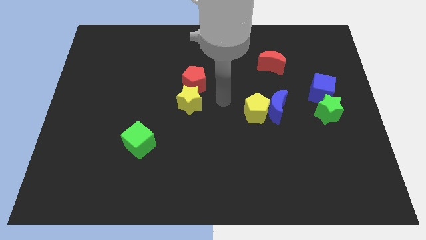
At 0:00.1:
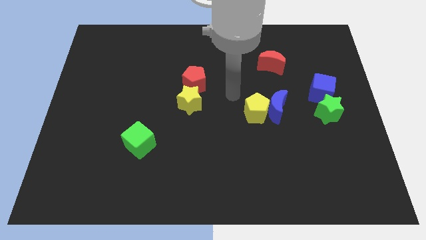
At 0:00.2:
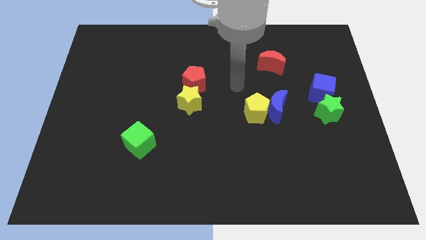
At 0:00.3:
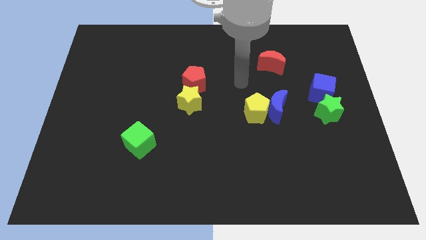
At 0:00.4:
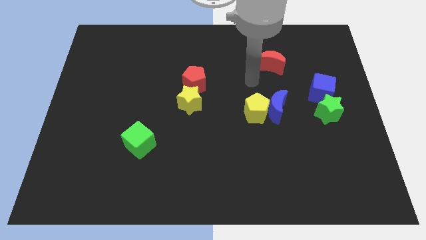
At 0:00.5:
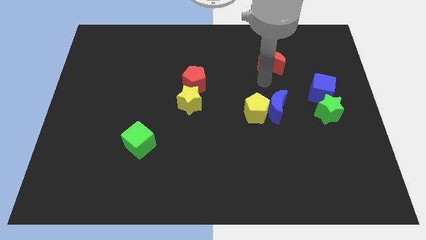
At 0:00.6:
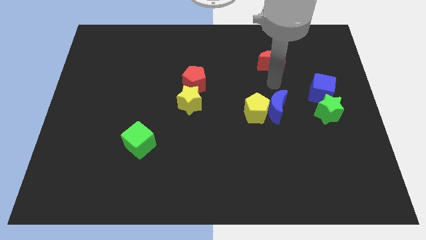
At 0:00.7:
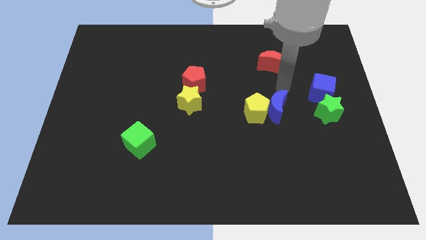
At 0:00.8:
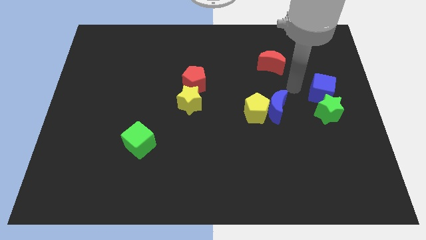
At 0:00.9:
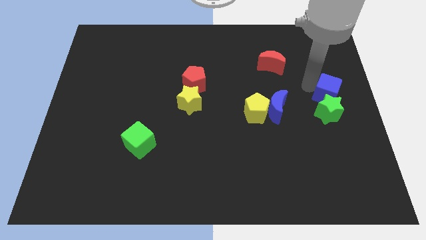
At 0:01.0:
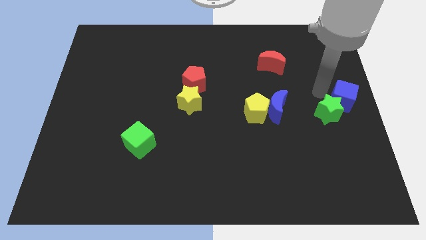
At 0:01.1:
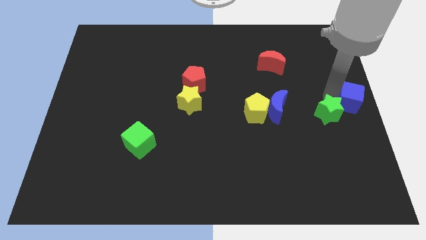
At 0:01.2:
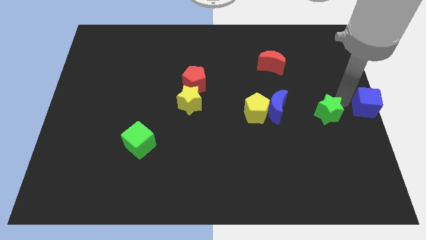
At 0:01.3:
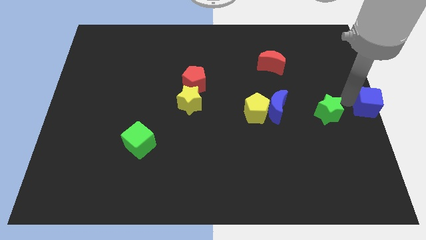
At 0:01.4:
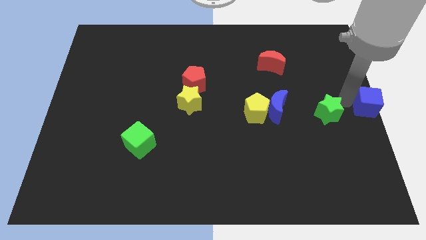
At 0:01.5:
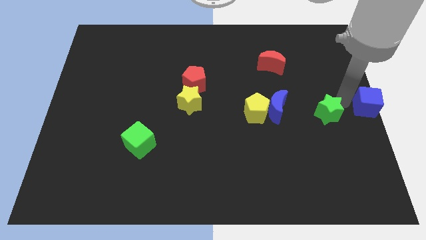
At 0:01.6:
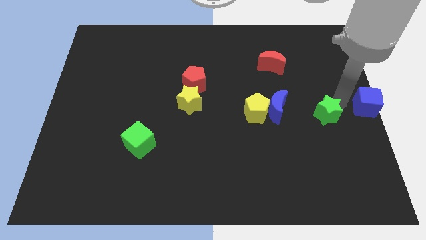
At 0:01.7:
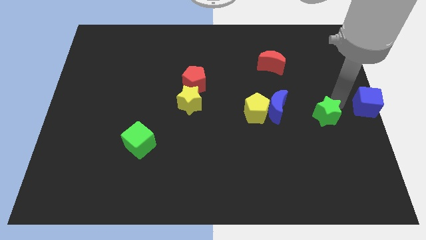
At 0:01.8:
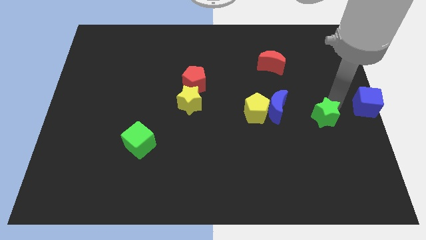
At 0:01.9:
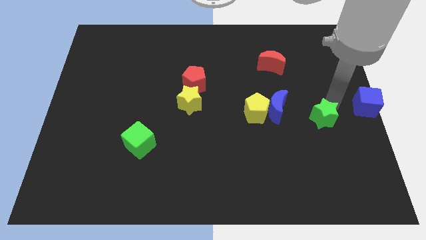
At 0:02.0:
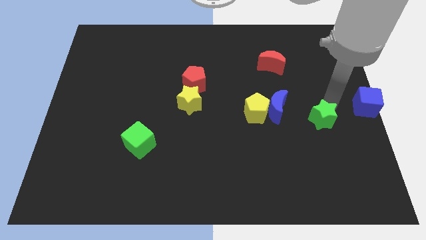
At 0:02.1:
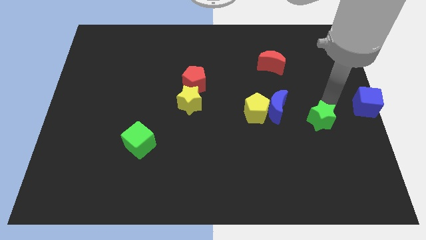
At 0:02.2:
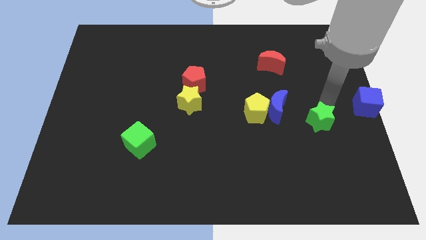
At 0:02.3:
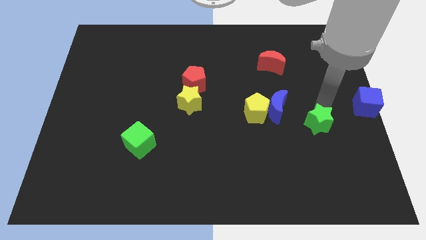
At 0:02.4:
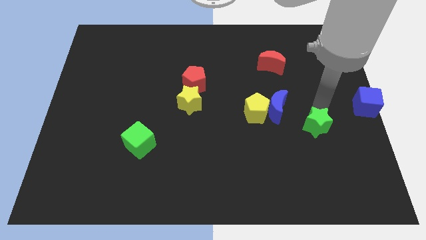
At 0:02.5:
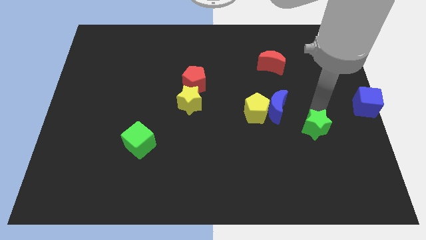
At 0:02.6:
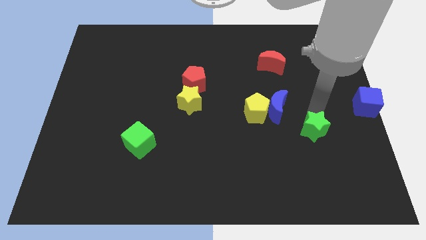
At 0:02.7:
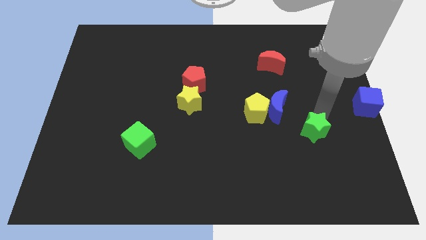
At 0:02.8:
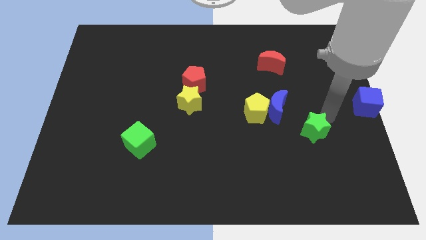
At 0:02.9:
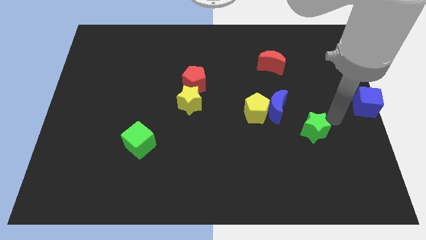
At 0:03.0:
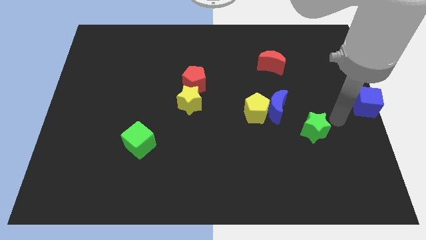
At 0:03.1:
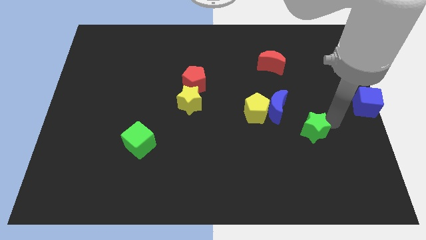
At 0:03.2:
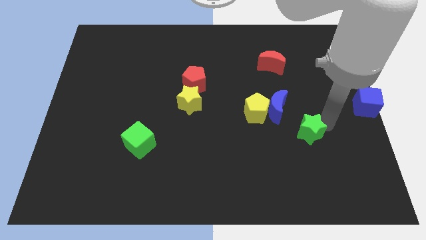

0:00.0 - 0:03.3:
slide the green star down and to the left diagonally somewhat

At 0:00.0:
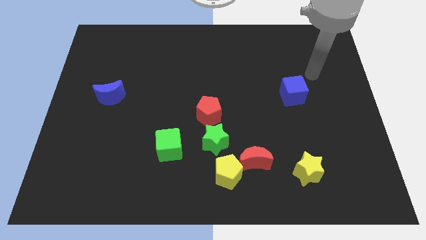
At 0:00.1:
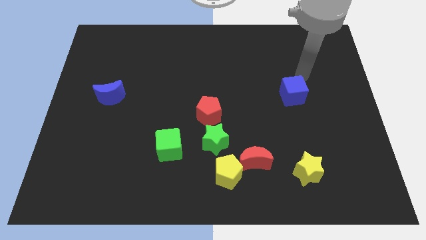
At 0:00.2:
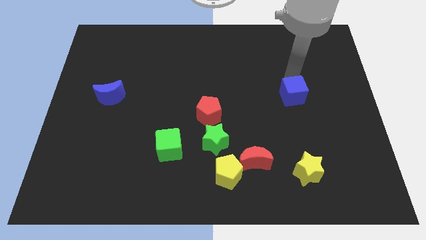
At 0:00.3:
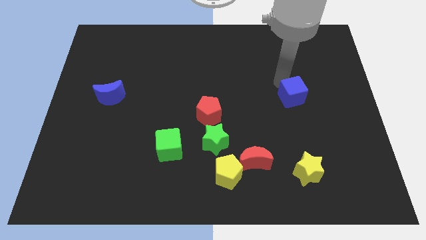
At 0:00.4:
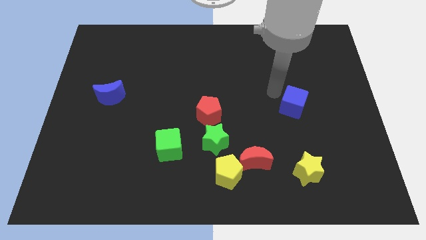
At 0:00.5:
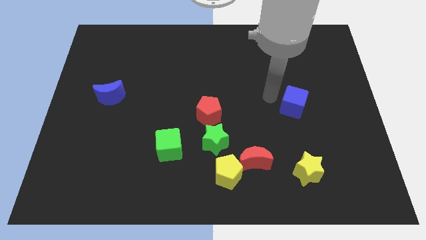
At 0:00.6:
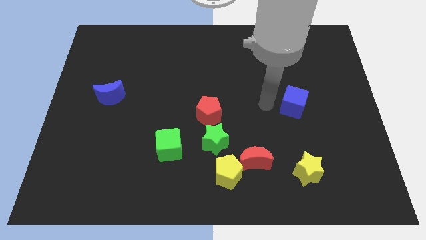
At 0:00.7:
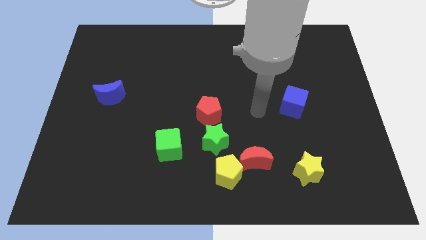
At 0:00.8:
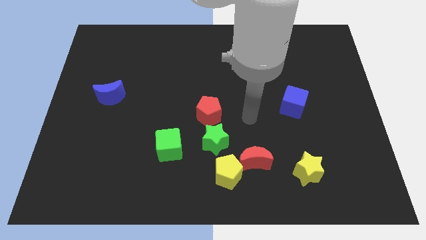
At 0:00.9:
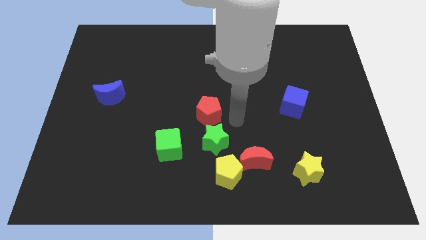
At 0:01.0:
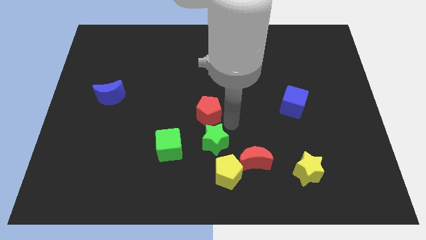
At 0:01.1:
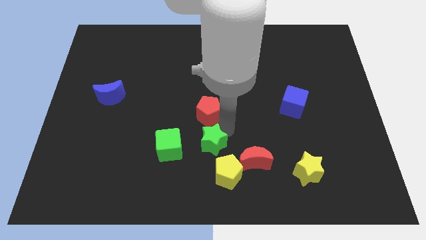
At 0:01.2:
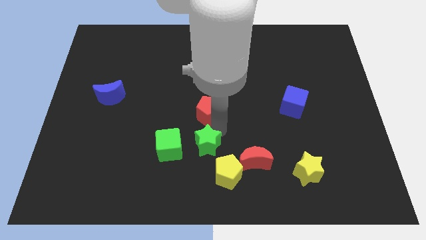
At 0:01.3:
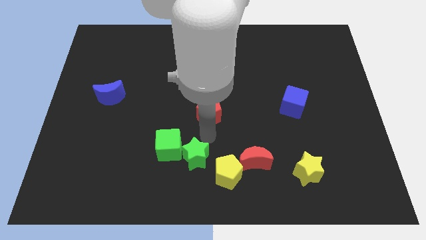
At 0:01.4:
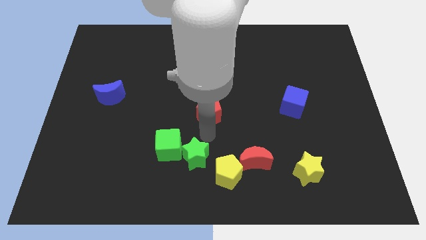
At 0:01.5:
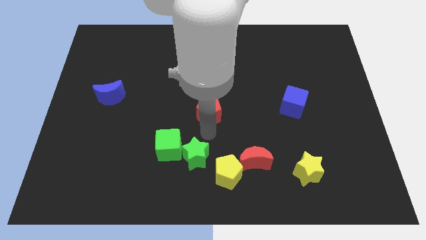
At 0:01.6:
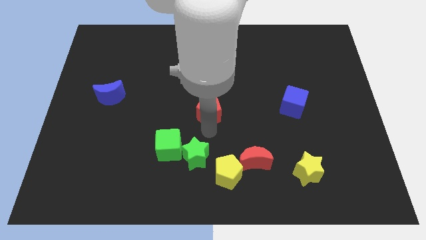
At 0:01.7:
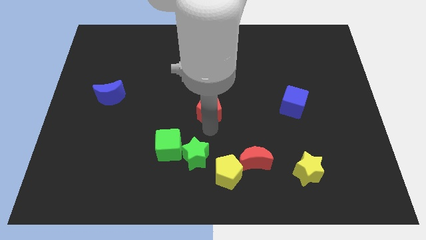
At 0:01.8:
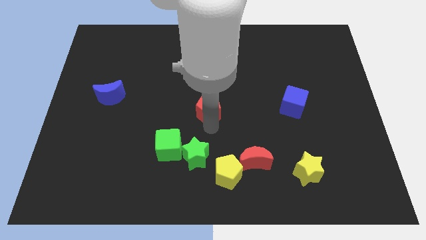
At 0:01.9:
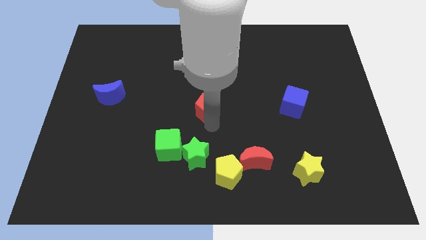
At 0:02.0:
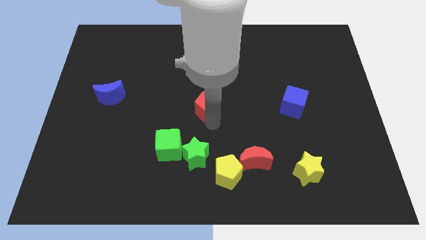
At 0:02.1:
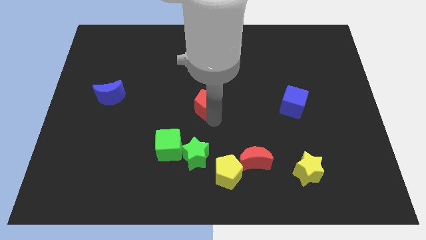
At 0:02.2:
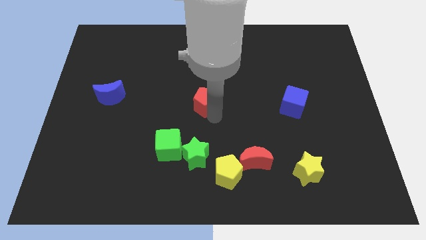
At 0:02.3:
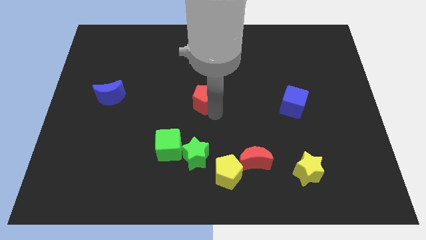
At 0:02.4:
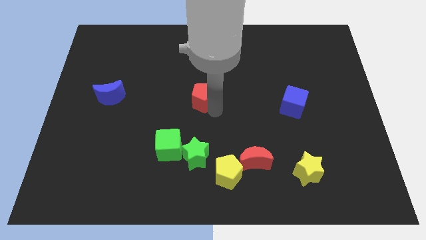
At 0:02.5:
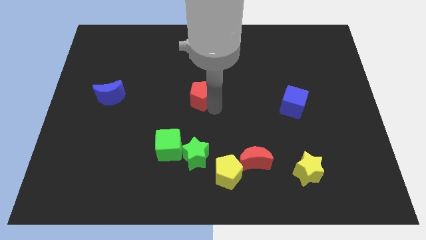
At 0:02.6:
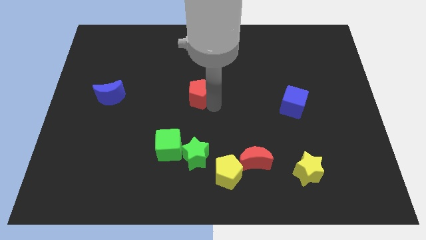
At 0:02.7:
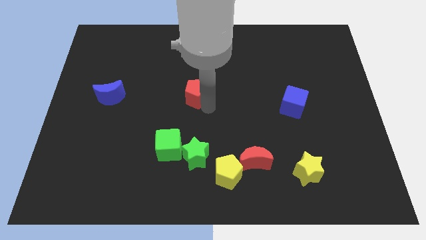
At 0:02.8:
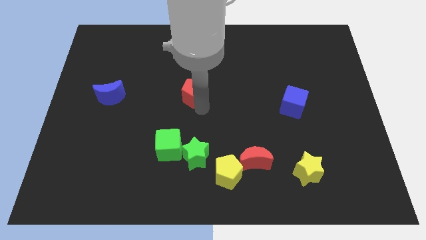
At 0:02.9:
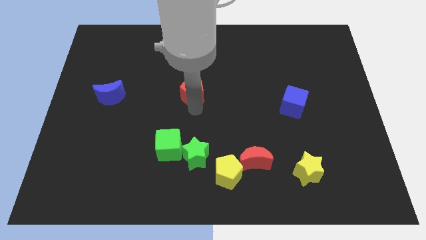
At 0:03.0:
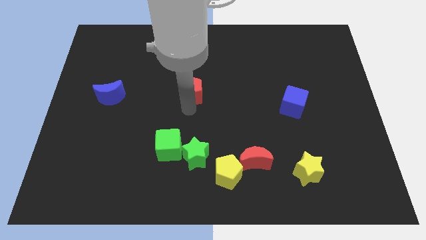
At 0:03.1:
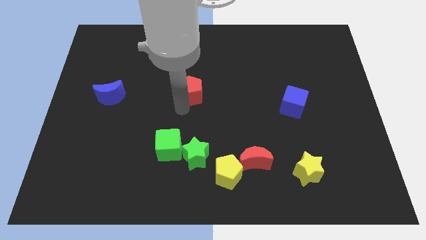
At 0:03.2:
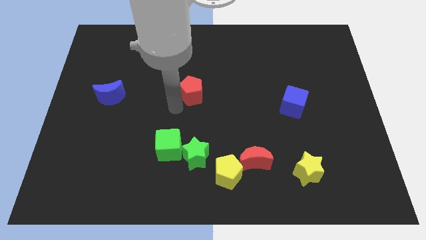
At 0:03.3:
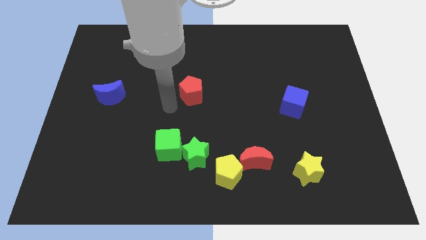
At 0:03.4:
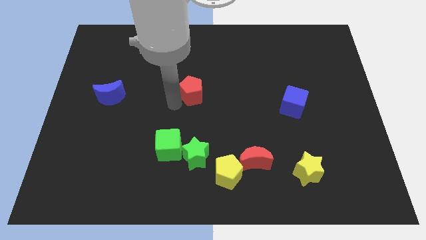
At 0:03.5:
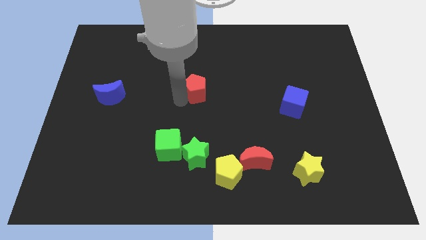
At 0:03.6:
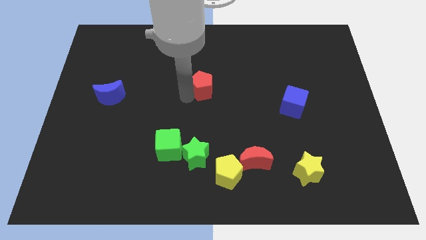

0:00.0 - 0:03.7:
move the red pentagon somewhat upwards

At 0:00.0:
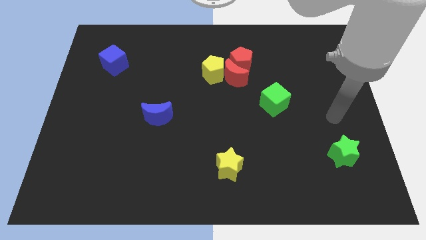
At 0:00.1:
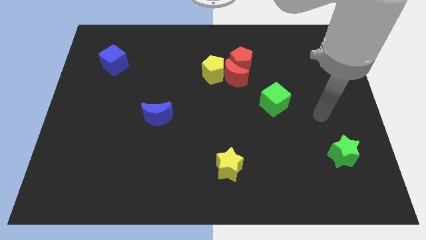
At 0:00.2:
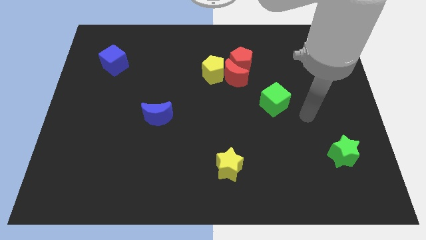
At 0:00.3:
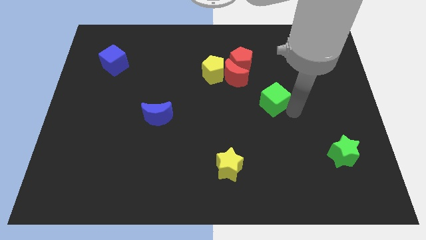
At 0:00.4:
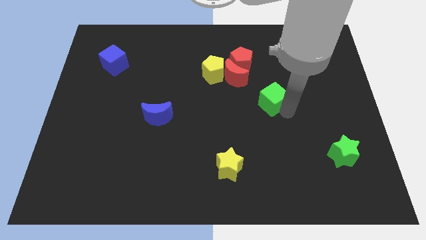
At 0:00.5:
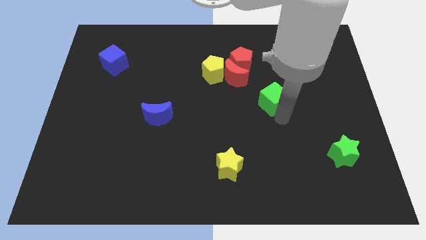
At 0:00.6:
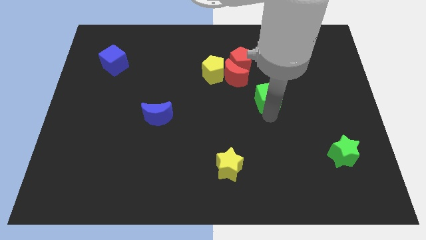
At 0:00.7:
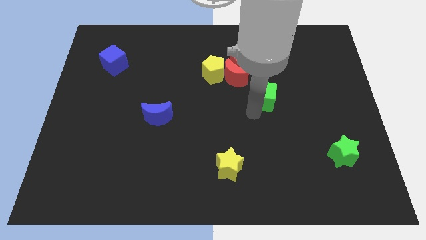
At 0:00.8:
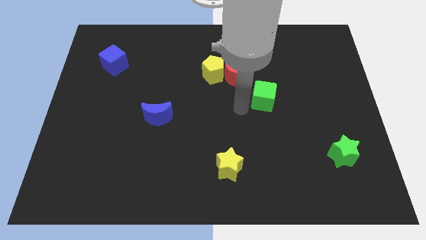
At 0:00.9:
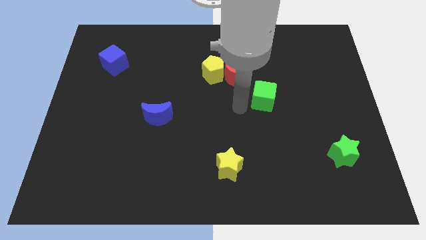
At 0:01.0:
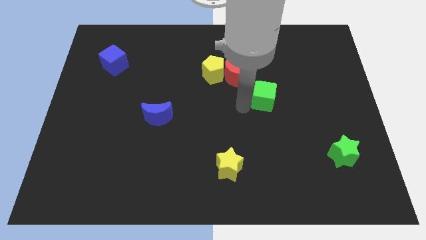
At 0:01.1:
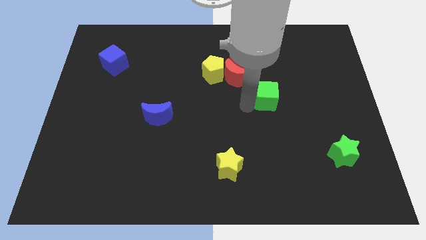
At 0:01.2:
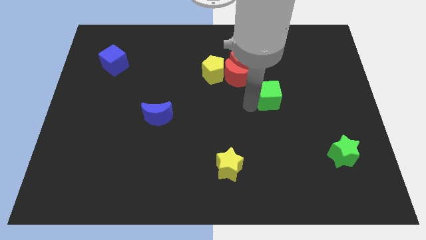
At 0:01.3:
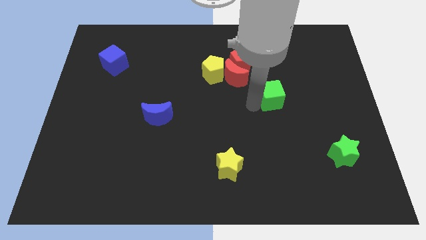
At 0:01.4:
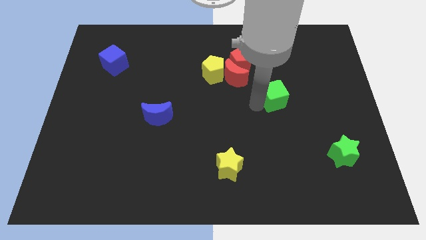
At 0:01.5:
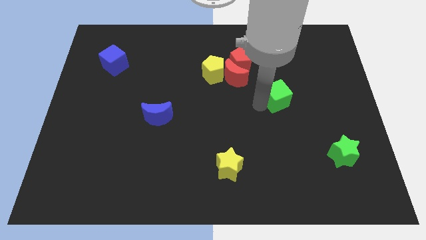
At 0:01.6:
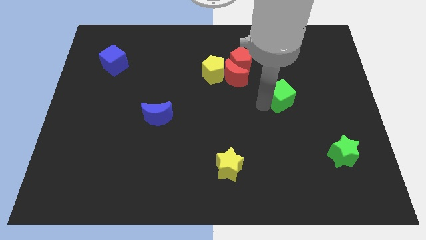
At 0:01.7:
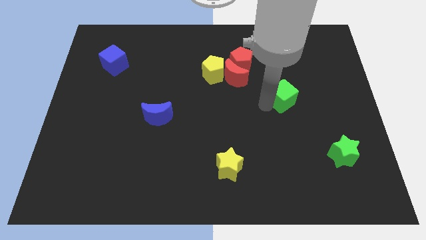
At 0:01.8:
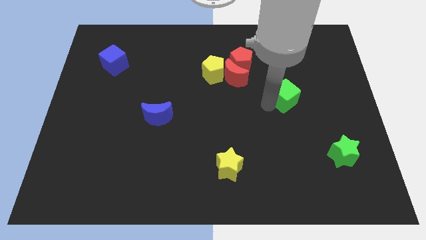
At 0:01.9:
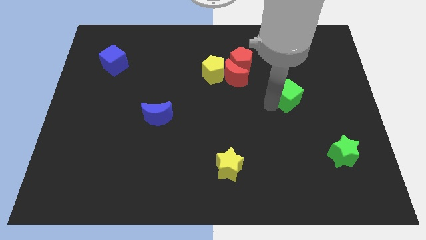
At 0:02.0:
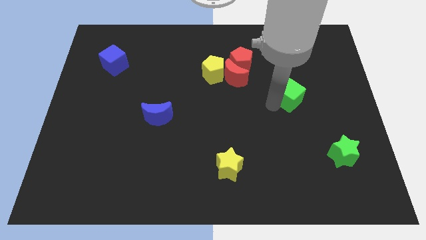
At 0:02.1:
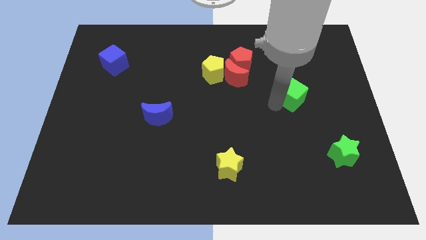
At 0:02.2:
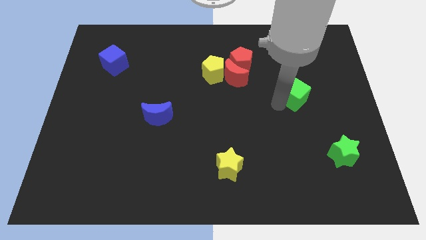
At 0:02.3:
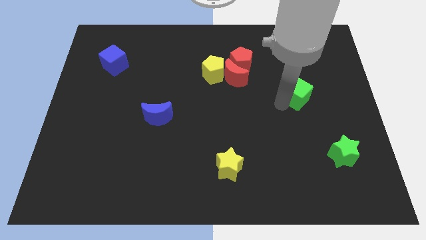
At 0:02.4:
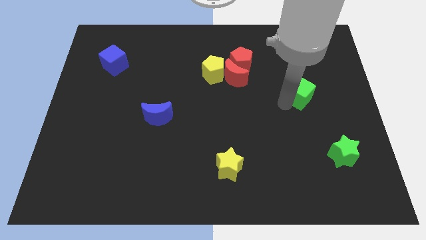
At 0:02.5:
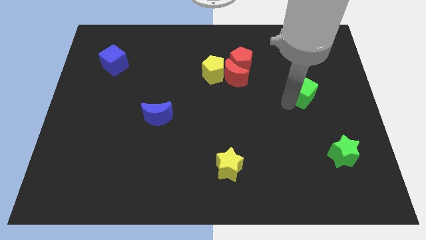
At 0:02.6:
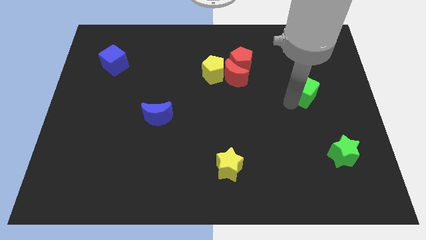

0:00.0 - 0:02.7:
push the green cube a little diagonally upwards and to the right
